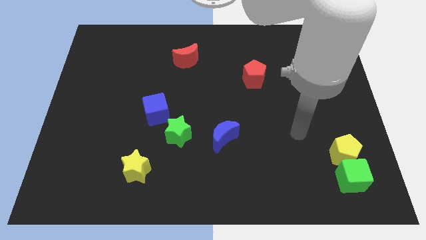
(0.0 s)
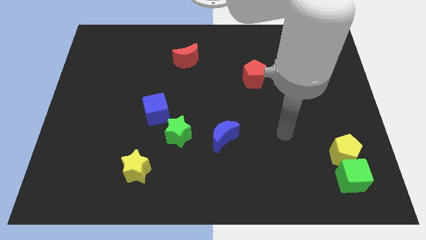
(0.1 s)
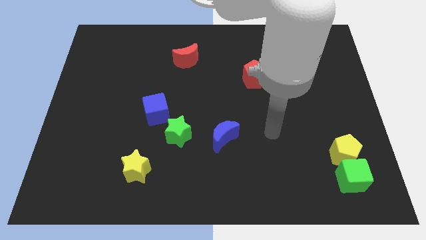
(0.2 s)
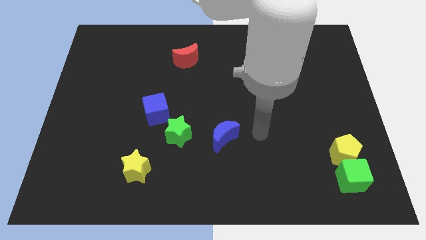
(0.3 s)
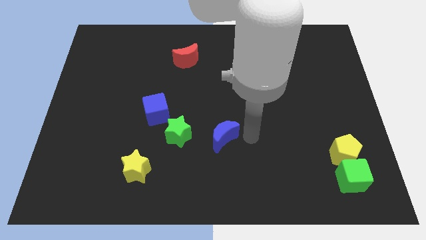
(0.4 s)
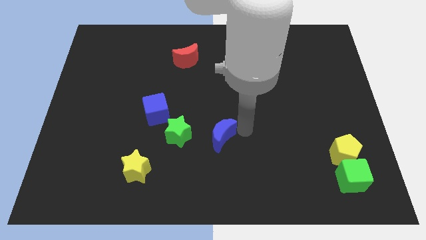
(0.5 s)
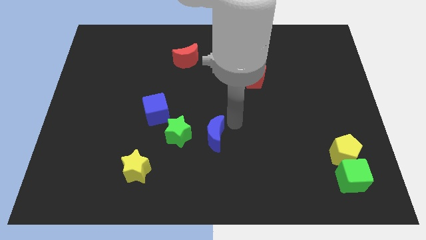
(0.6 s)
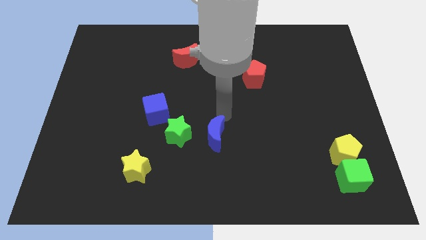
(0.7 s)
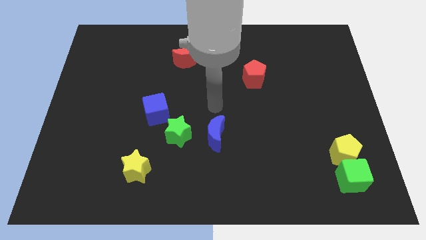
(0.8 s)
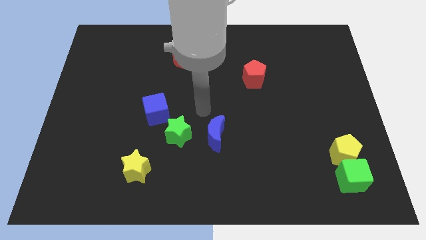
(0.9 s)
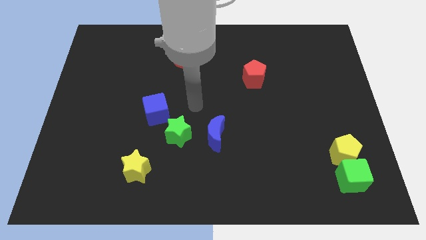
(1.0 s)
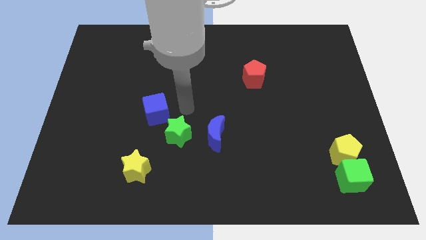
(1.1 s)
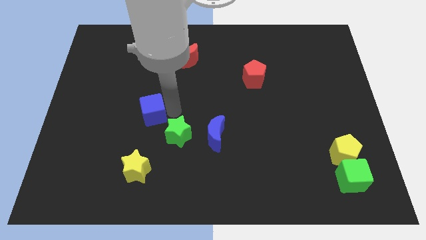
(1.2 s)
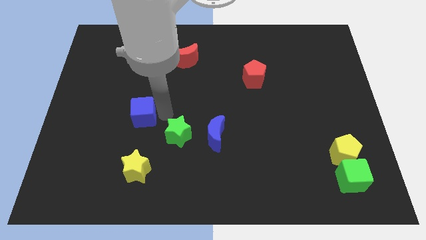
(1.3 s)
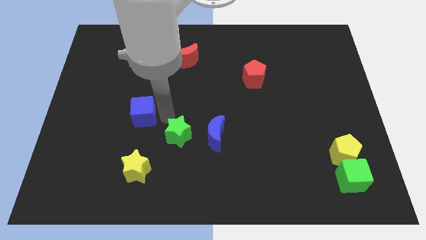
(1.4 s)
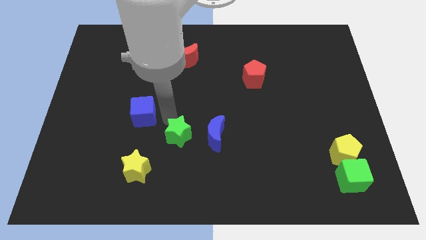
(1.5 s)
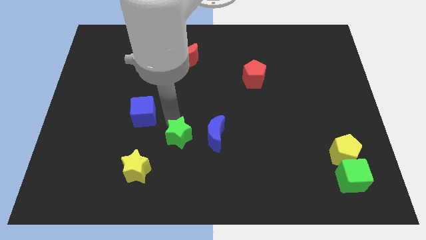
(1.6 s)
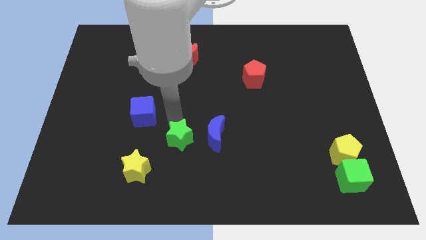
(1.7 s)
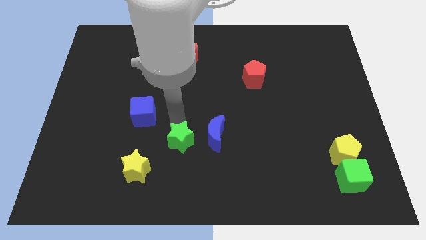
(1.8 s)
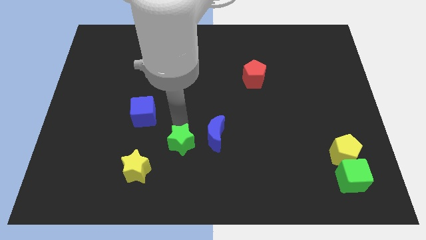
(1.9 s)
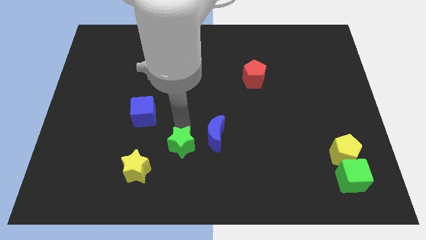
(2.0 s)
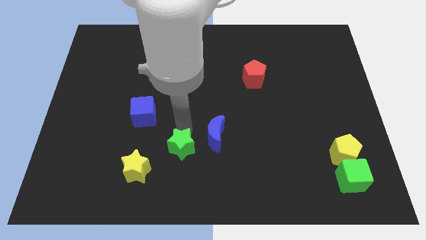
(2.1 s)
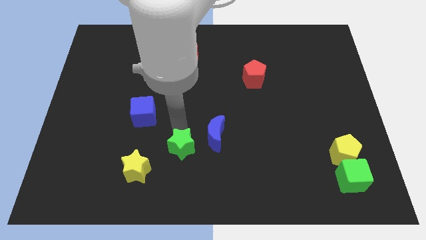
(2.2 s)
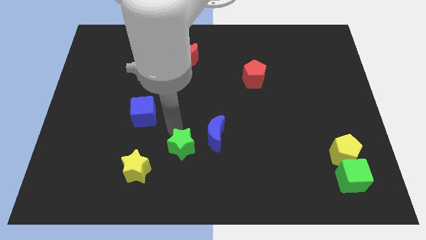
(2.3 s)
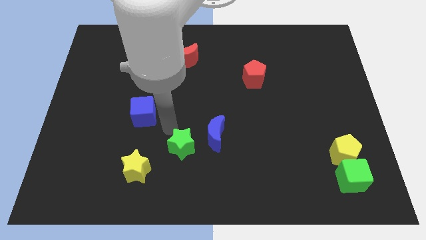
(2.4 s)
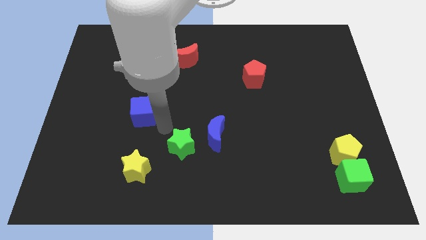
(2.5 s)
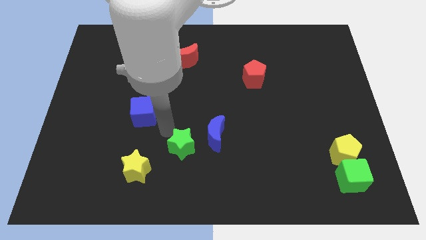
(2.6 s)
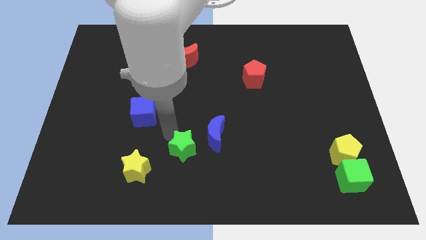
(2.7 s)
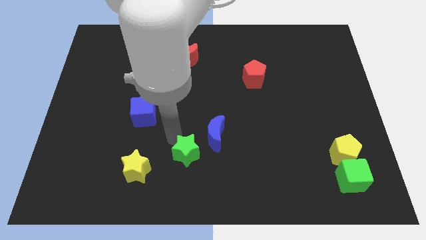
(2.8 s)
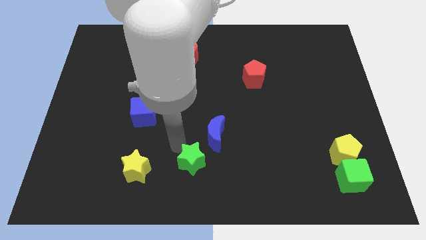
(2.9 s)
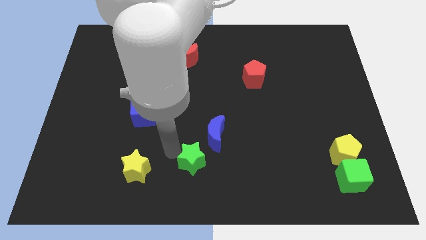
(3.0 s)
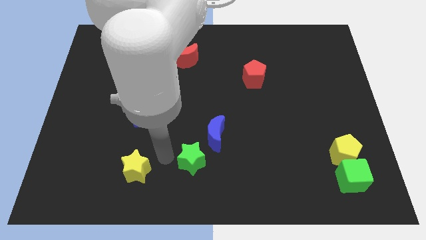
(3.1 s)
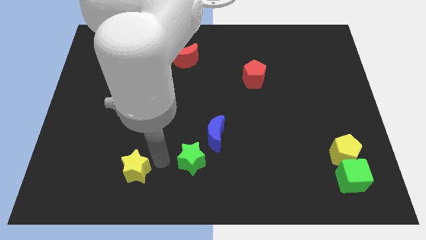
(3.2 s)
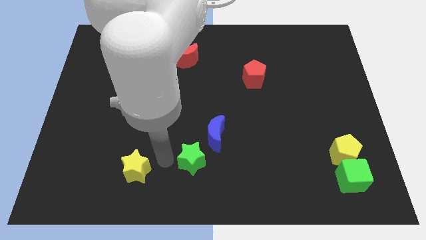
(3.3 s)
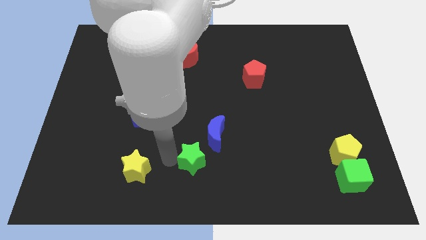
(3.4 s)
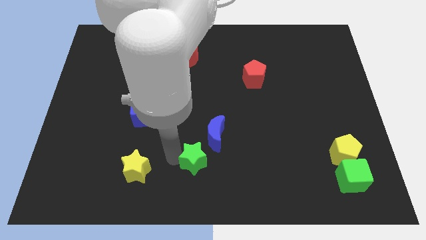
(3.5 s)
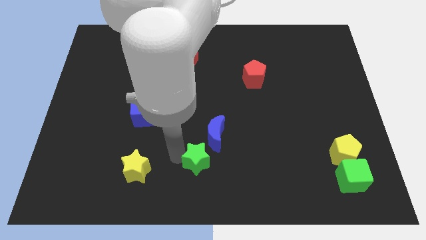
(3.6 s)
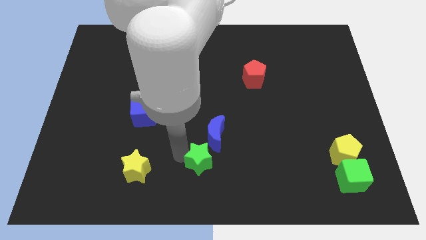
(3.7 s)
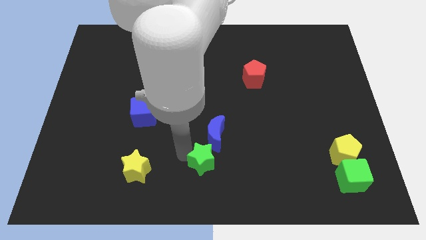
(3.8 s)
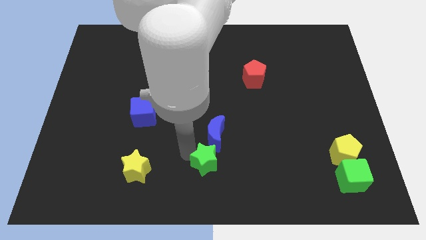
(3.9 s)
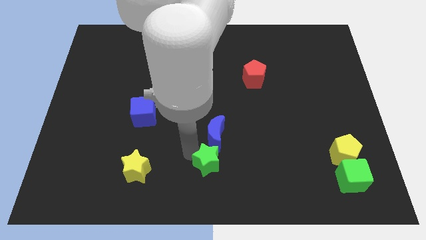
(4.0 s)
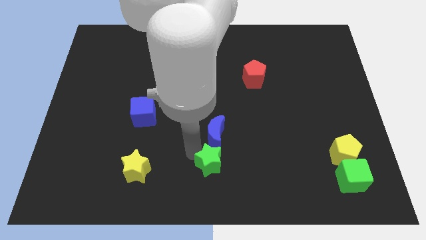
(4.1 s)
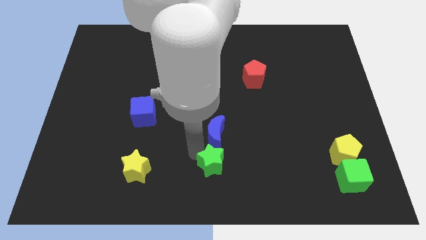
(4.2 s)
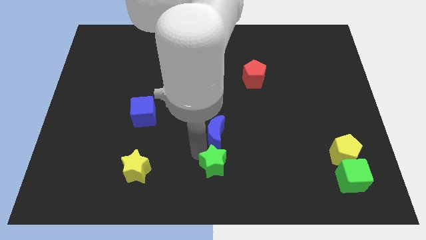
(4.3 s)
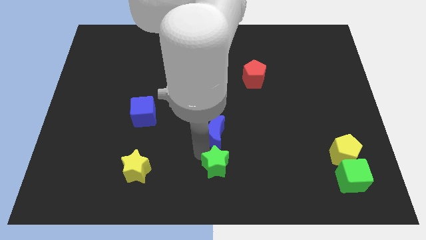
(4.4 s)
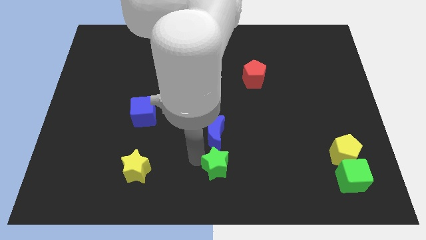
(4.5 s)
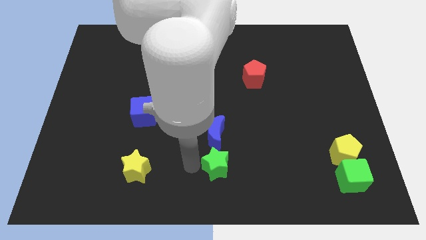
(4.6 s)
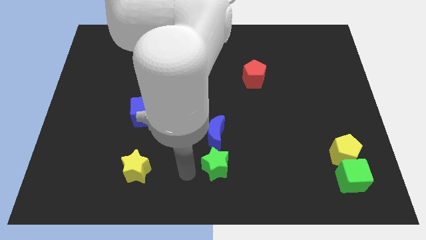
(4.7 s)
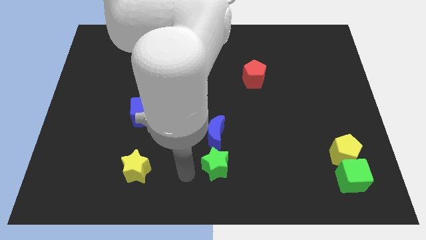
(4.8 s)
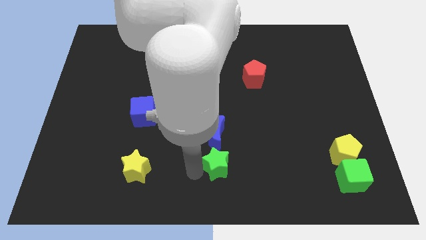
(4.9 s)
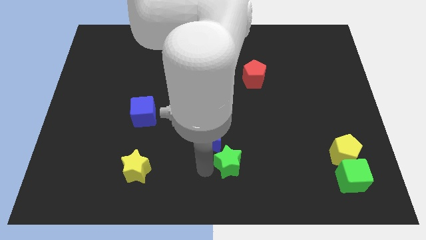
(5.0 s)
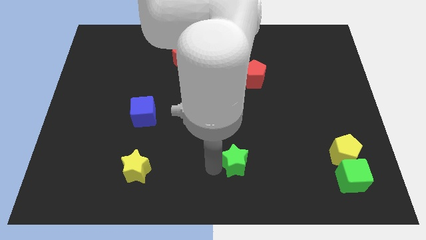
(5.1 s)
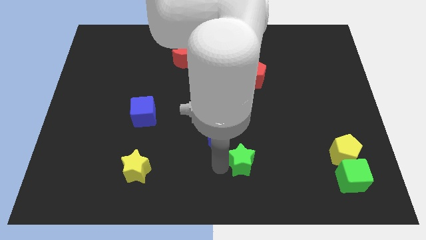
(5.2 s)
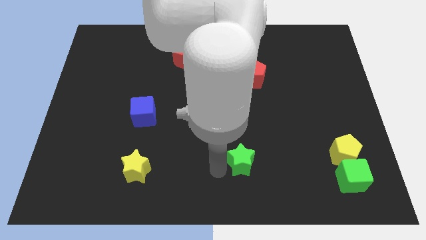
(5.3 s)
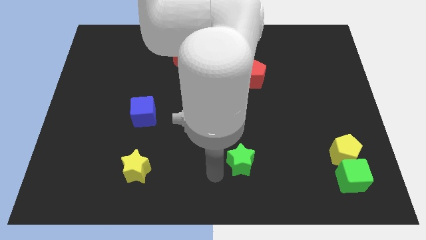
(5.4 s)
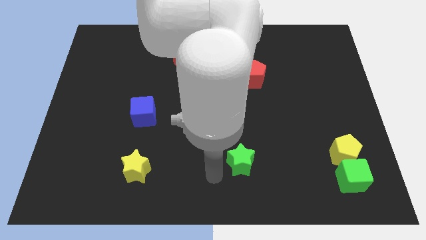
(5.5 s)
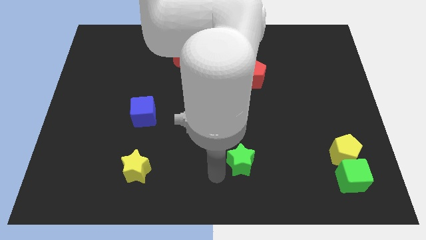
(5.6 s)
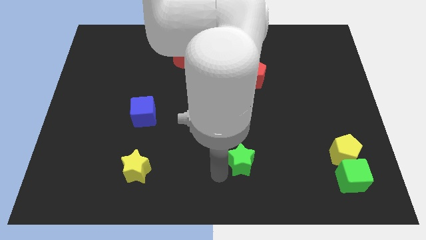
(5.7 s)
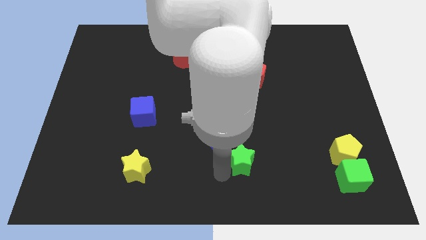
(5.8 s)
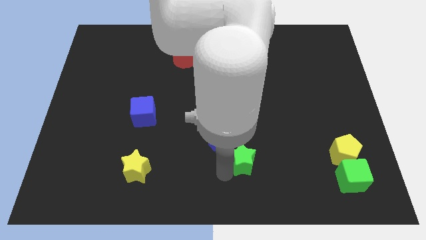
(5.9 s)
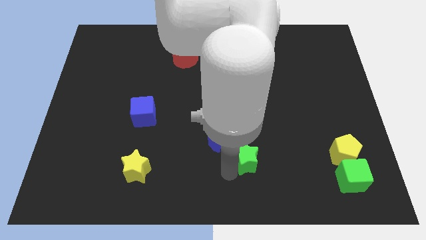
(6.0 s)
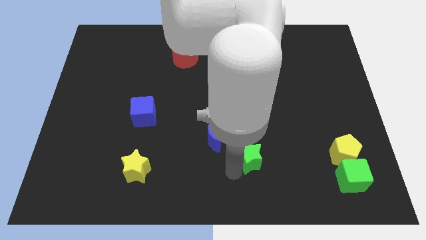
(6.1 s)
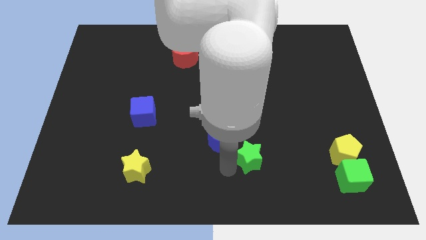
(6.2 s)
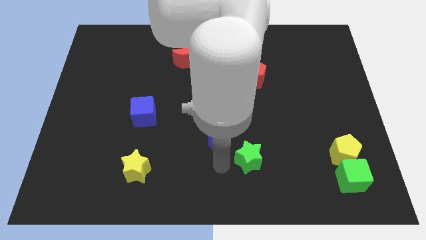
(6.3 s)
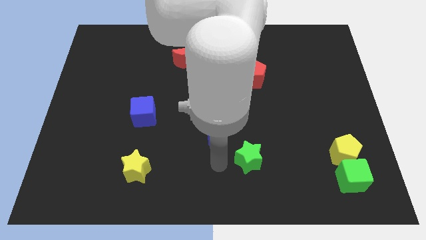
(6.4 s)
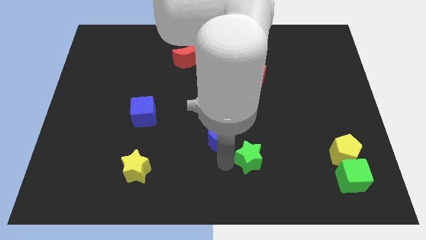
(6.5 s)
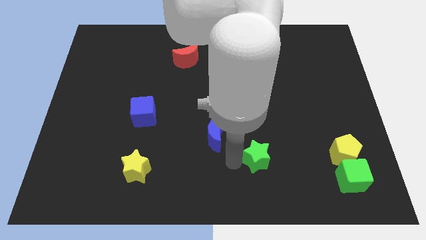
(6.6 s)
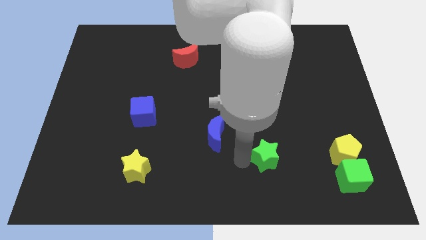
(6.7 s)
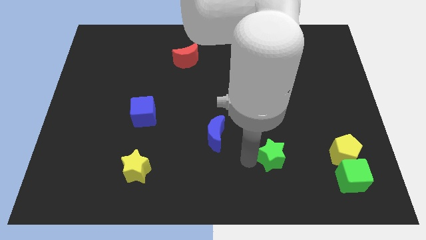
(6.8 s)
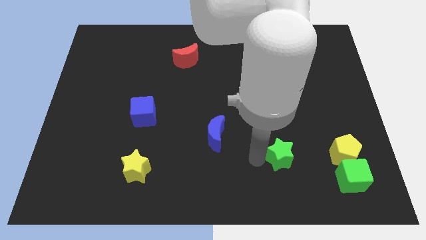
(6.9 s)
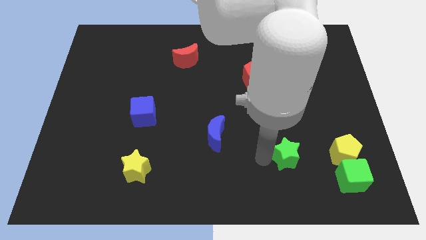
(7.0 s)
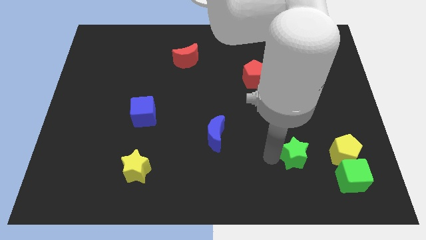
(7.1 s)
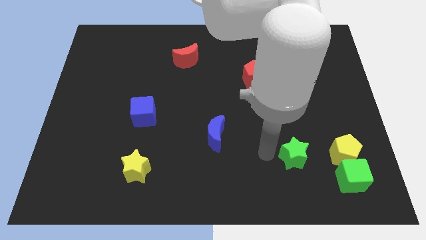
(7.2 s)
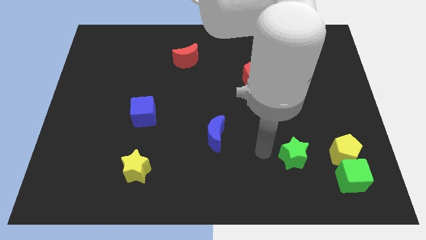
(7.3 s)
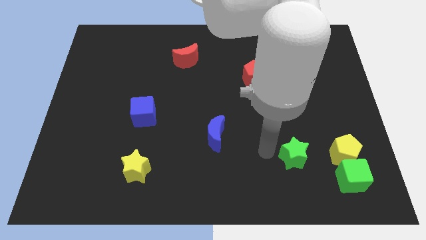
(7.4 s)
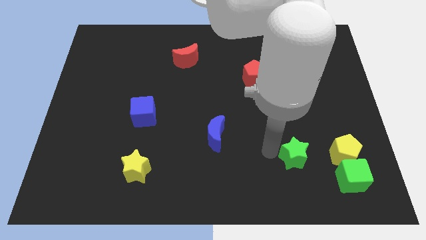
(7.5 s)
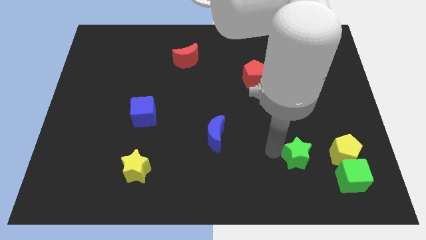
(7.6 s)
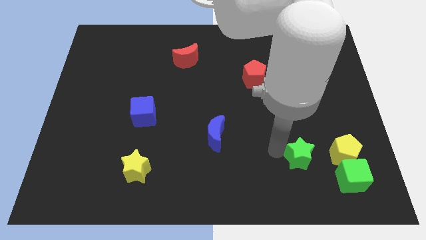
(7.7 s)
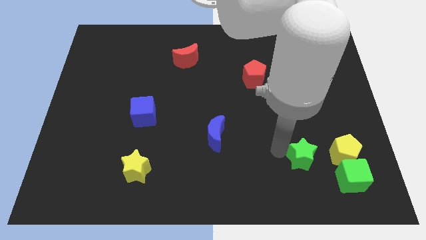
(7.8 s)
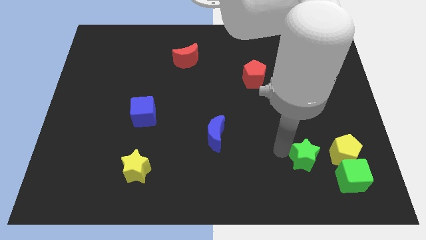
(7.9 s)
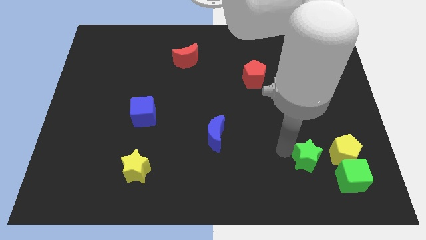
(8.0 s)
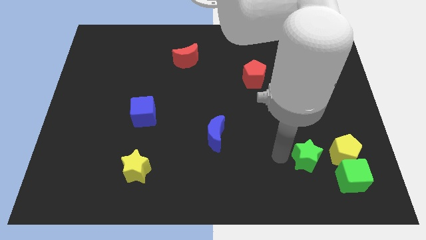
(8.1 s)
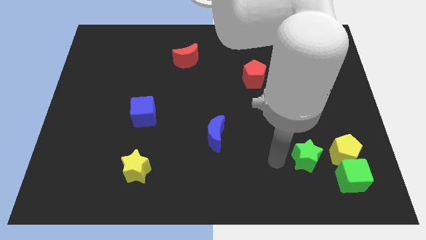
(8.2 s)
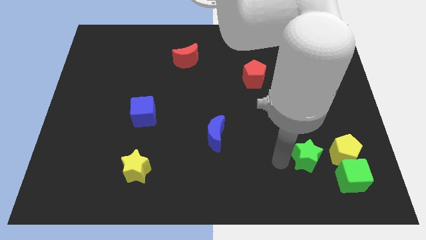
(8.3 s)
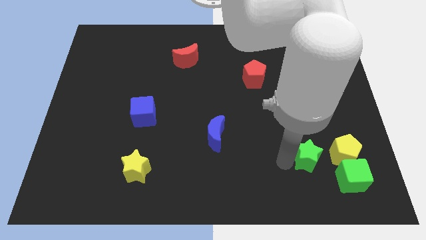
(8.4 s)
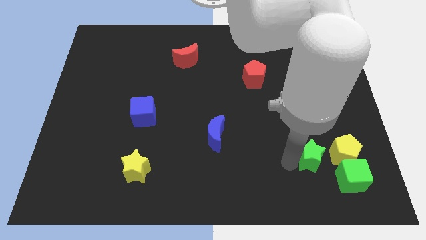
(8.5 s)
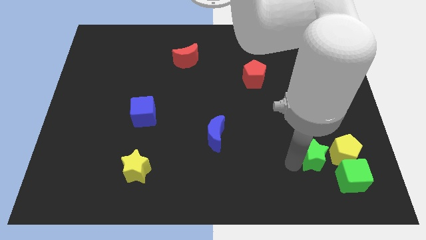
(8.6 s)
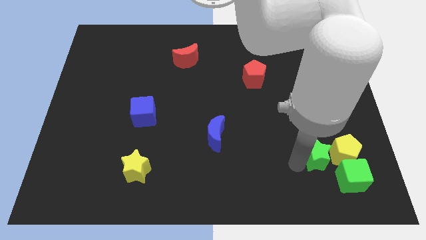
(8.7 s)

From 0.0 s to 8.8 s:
slide the green star towards the yellow pentagon
